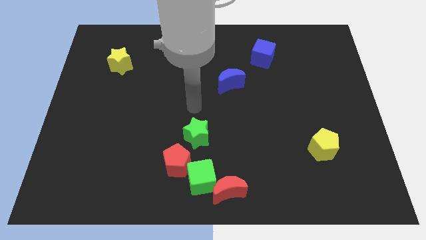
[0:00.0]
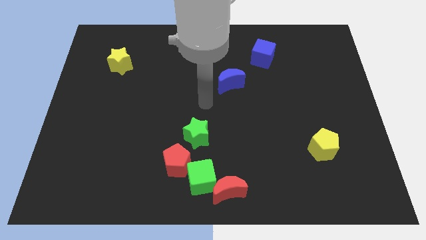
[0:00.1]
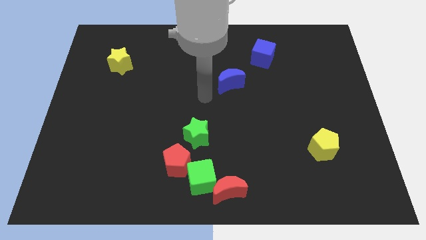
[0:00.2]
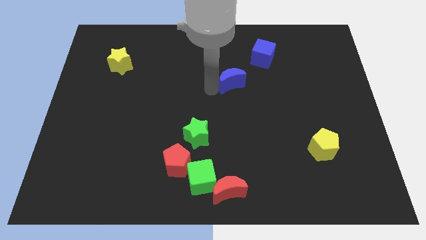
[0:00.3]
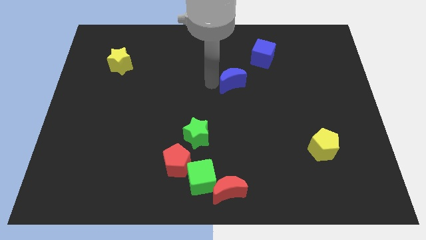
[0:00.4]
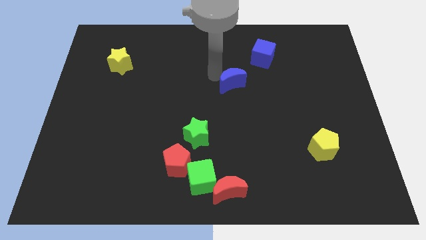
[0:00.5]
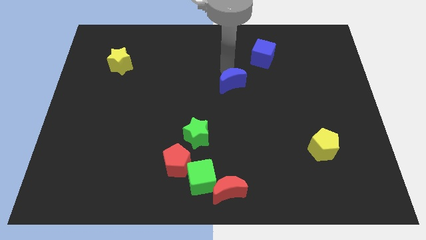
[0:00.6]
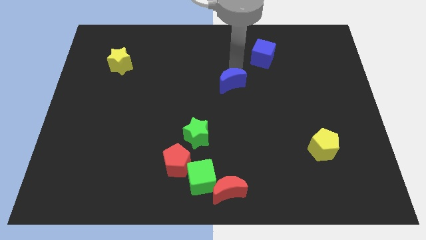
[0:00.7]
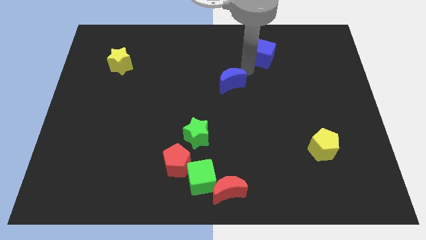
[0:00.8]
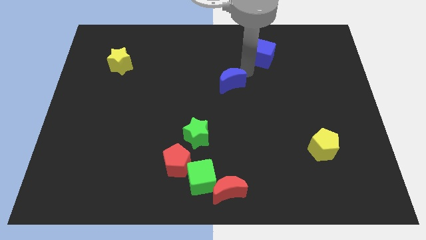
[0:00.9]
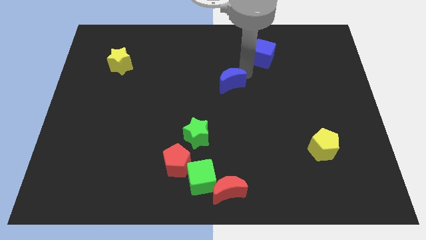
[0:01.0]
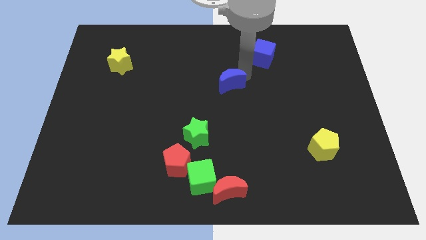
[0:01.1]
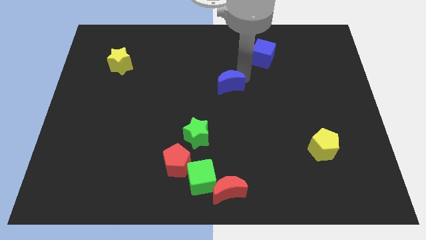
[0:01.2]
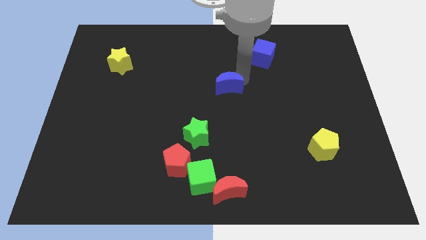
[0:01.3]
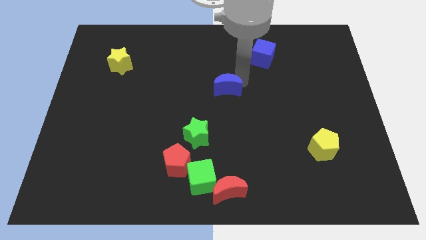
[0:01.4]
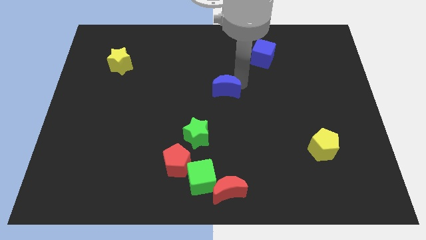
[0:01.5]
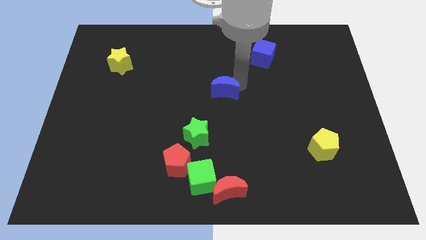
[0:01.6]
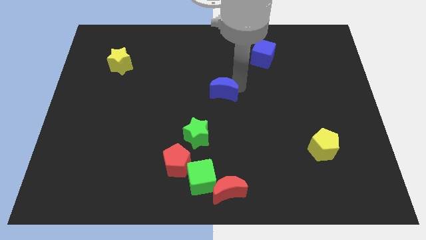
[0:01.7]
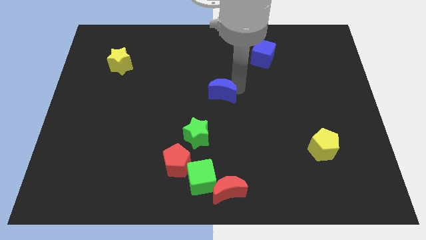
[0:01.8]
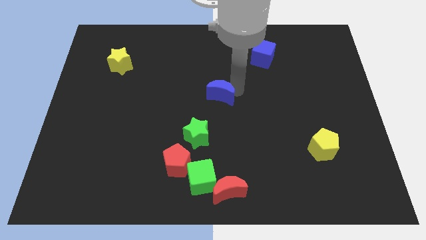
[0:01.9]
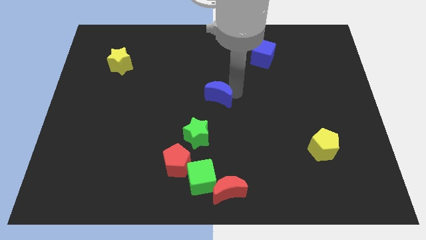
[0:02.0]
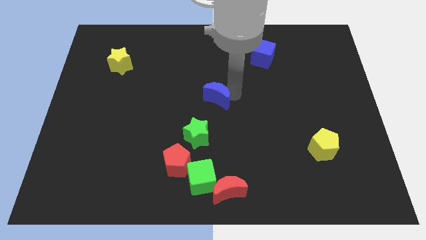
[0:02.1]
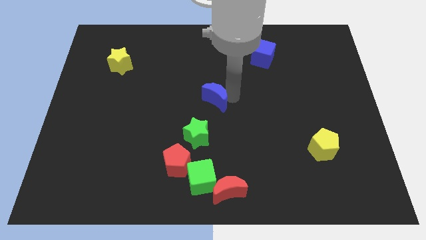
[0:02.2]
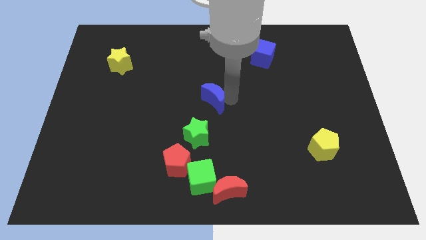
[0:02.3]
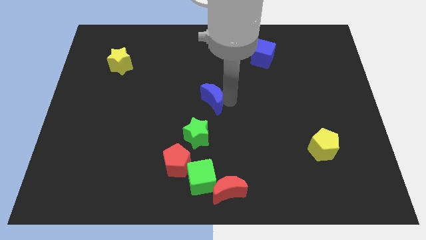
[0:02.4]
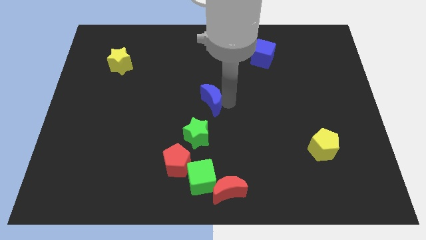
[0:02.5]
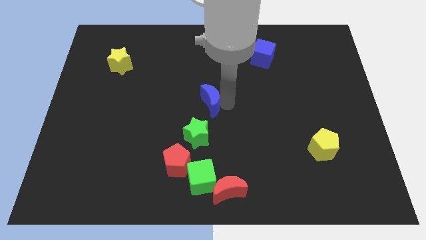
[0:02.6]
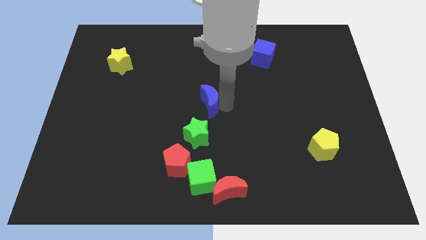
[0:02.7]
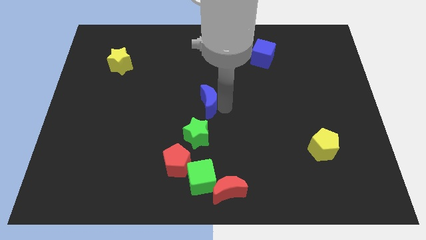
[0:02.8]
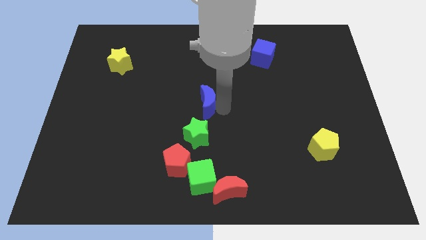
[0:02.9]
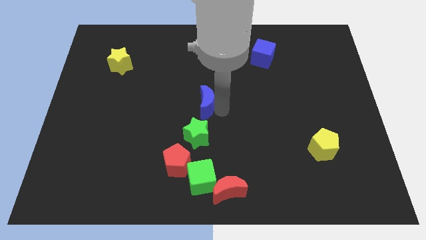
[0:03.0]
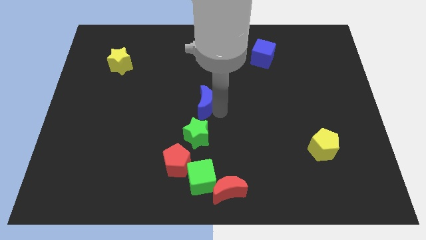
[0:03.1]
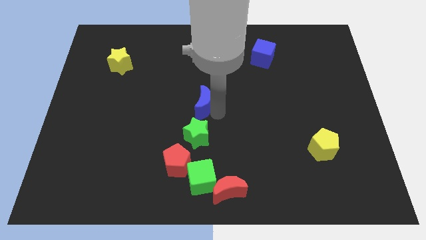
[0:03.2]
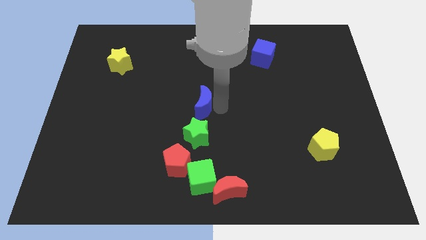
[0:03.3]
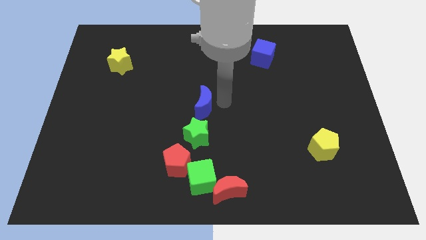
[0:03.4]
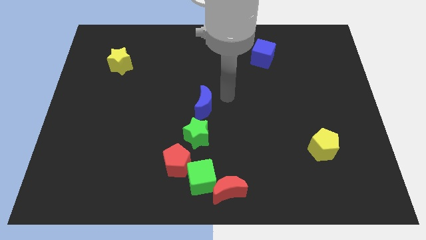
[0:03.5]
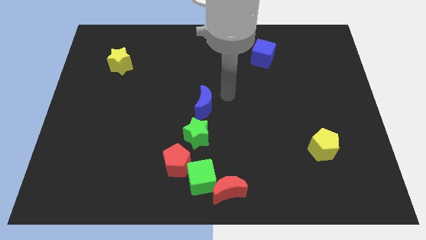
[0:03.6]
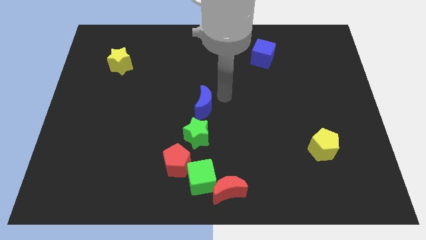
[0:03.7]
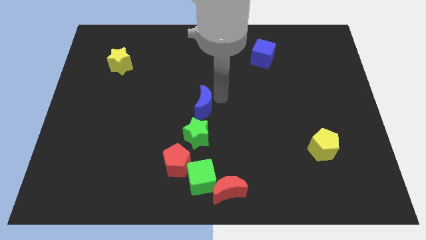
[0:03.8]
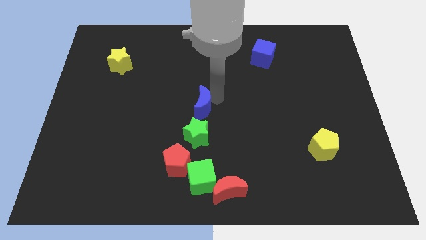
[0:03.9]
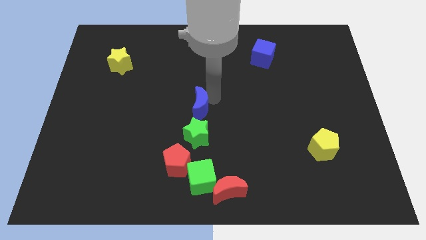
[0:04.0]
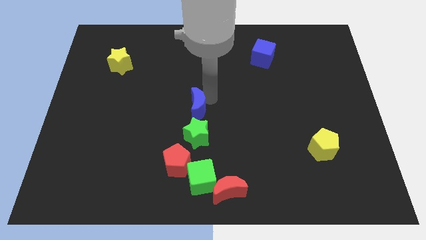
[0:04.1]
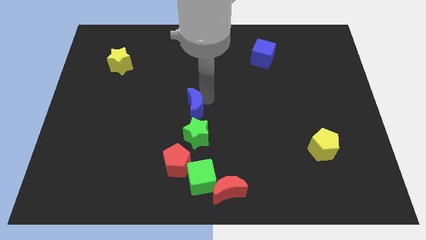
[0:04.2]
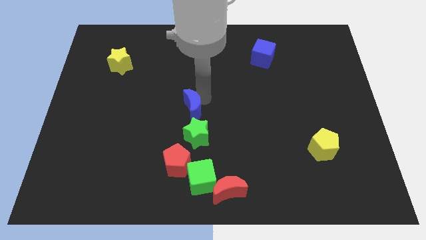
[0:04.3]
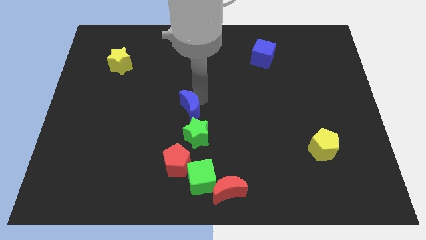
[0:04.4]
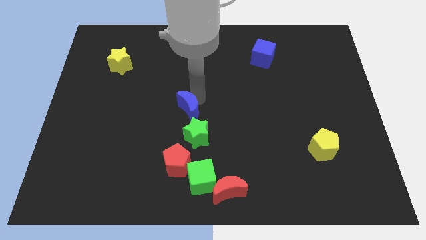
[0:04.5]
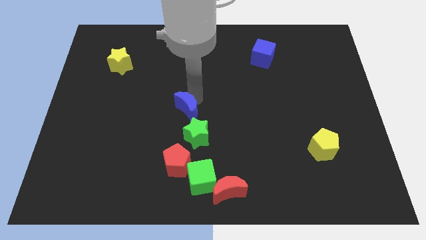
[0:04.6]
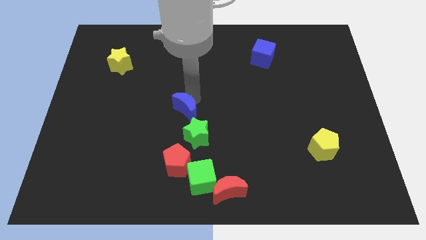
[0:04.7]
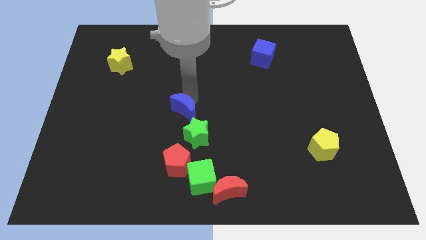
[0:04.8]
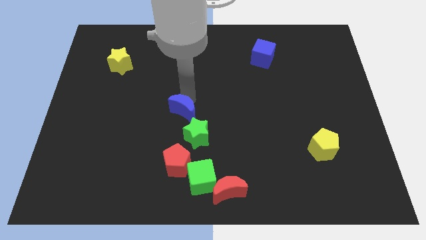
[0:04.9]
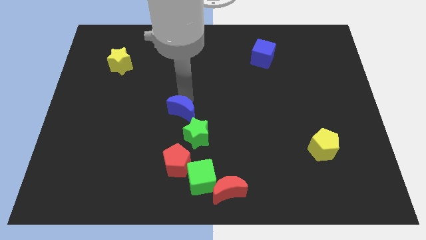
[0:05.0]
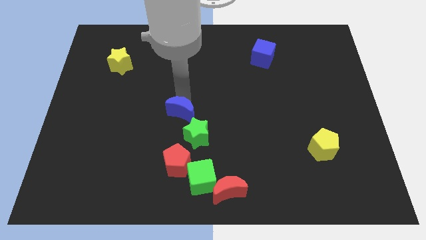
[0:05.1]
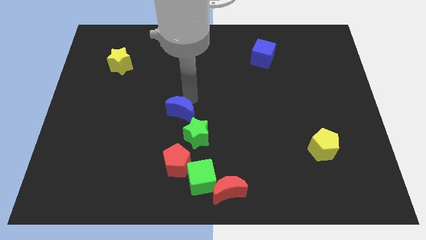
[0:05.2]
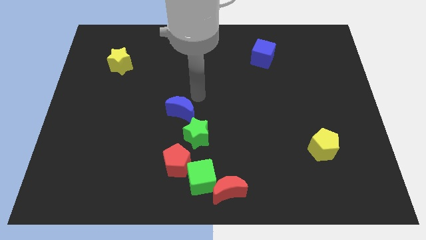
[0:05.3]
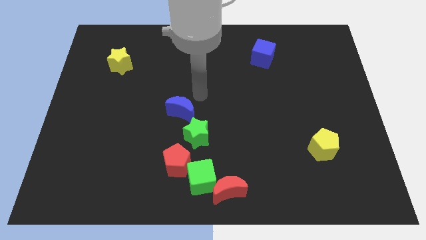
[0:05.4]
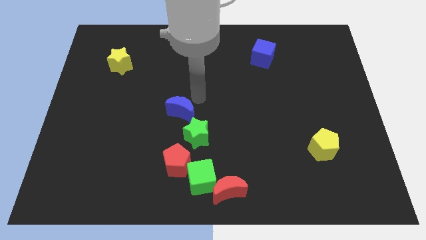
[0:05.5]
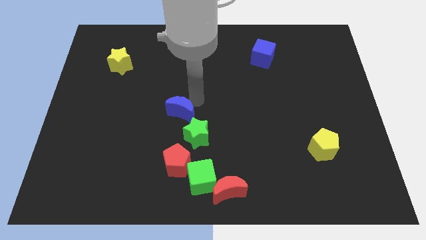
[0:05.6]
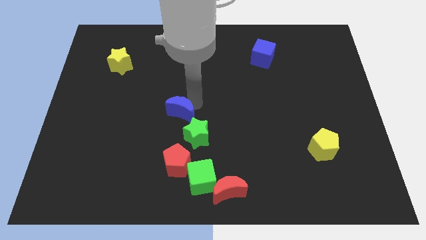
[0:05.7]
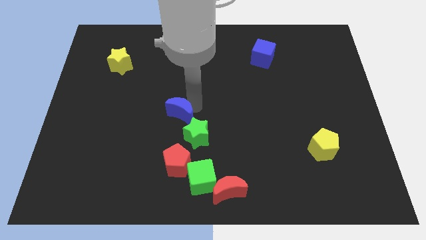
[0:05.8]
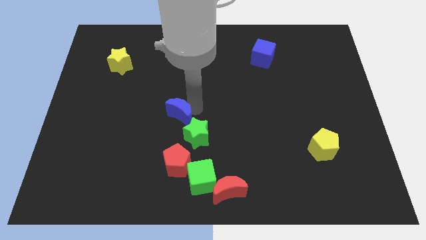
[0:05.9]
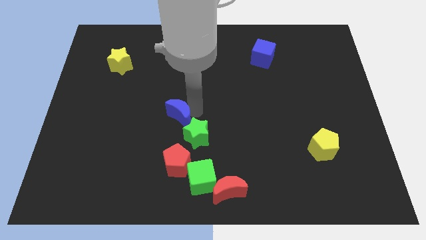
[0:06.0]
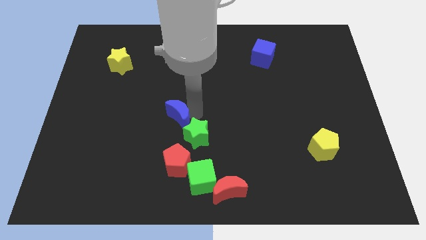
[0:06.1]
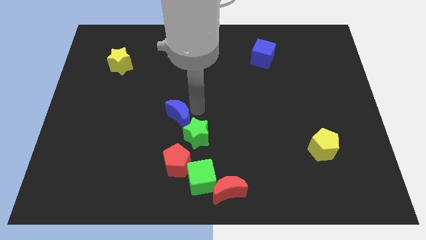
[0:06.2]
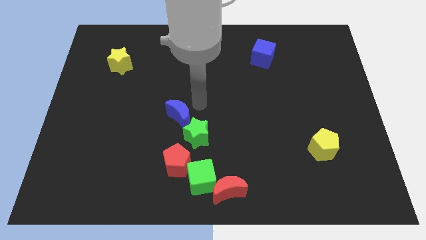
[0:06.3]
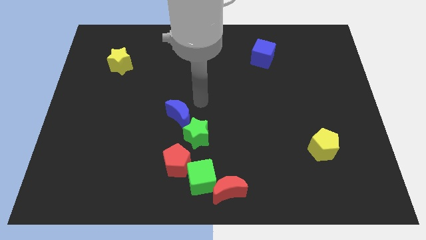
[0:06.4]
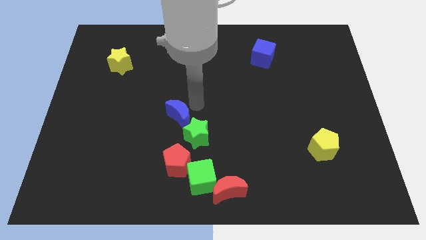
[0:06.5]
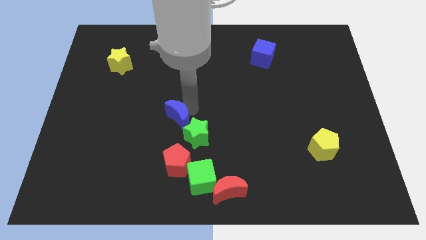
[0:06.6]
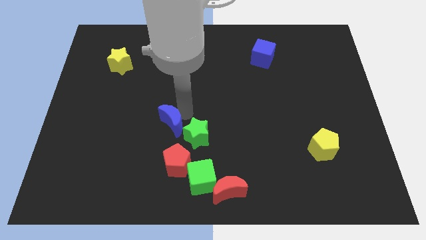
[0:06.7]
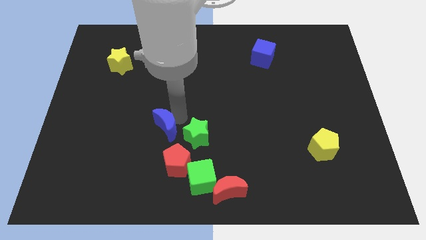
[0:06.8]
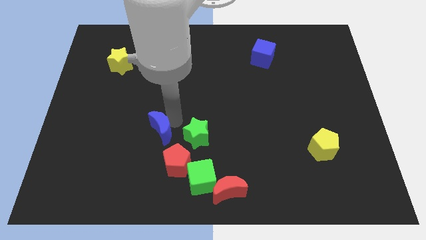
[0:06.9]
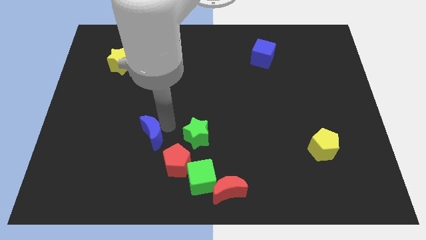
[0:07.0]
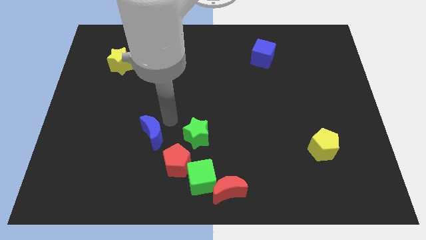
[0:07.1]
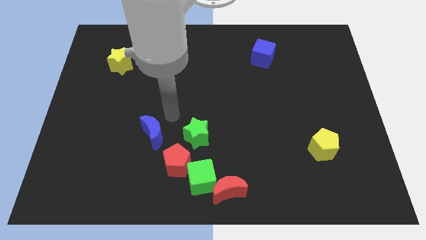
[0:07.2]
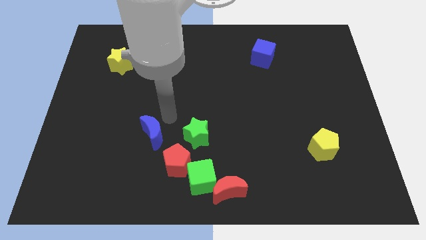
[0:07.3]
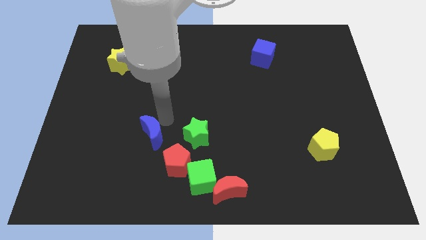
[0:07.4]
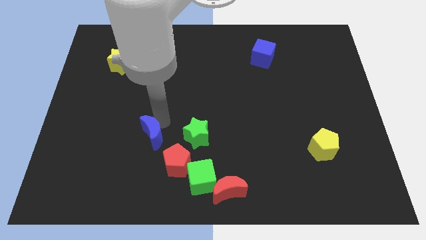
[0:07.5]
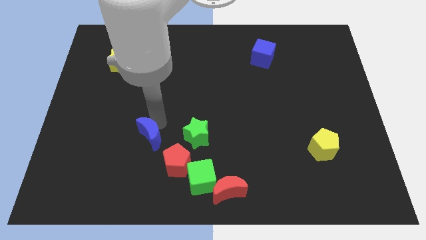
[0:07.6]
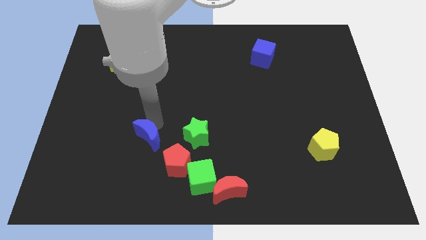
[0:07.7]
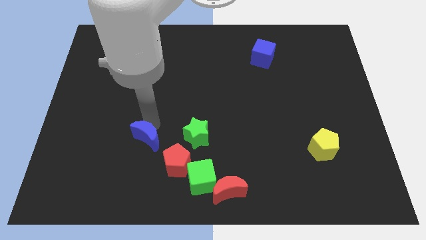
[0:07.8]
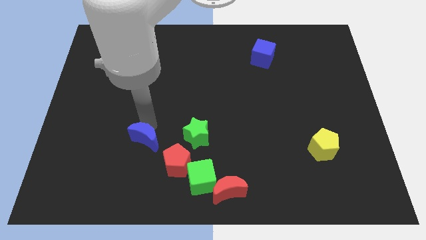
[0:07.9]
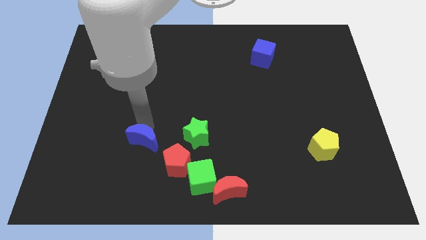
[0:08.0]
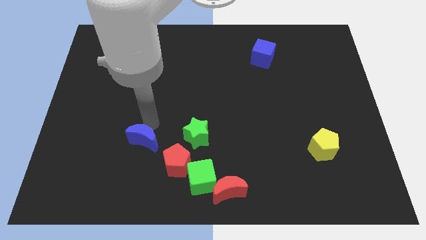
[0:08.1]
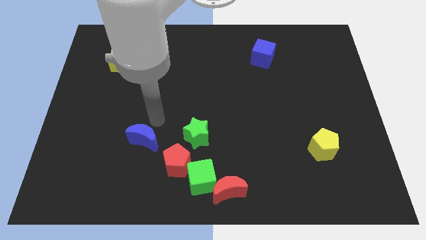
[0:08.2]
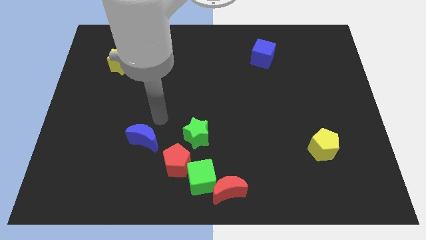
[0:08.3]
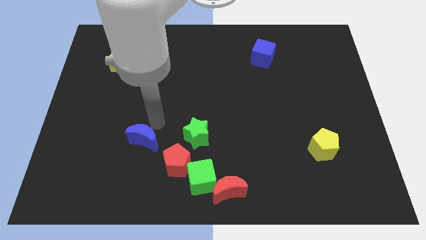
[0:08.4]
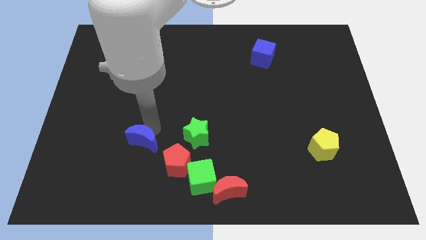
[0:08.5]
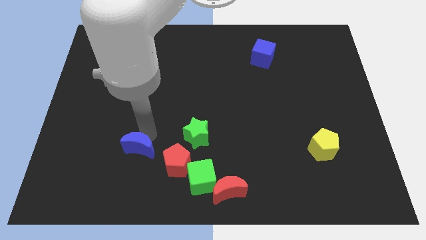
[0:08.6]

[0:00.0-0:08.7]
move the blue moon just left of the red pentagon
